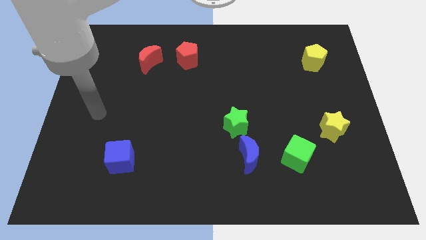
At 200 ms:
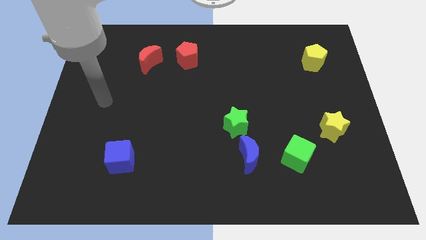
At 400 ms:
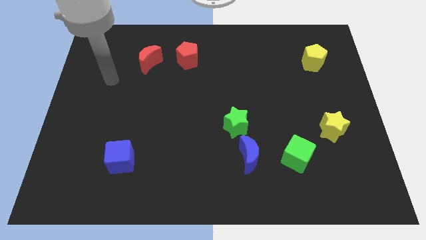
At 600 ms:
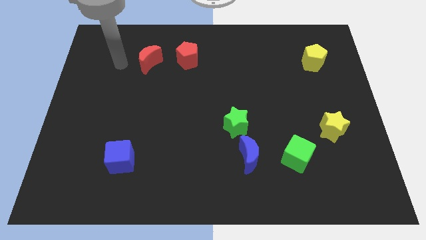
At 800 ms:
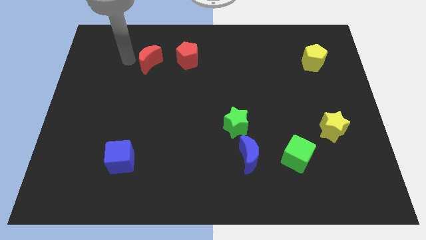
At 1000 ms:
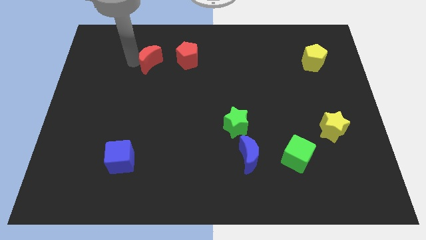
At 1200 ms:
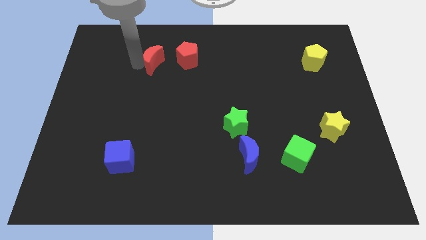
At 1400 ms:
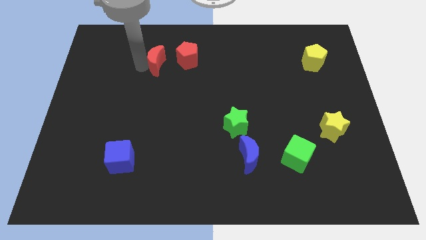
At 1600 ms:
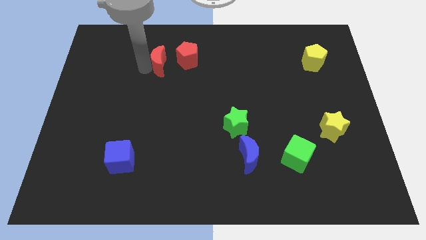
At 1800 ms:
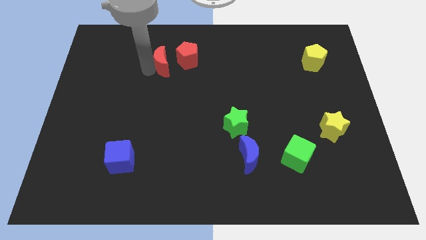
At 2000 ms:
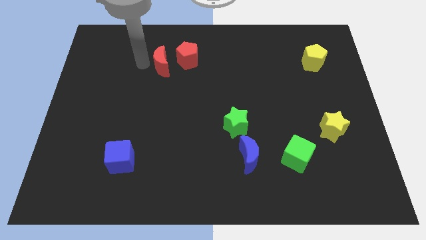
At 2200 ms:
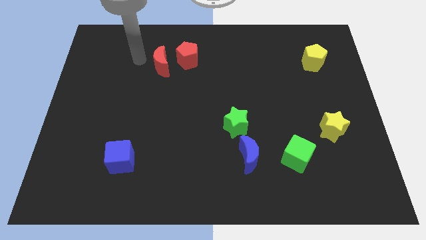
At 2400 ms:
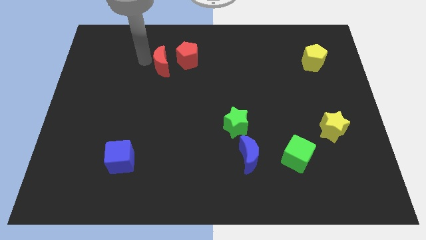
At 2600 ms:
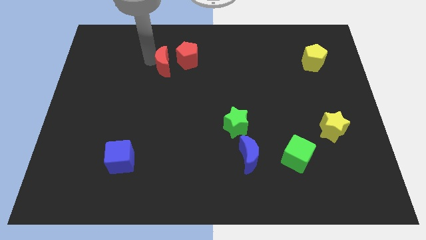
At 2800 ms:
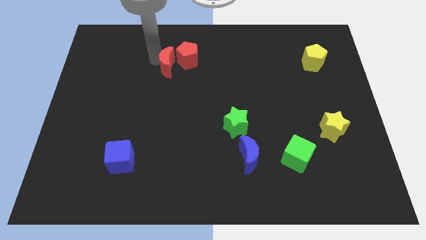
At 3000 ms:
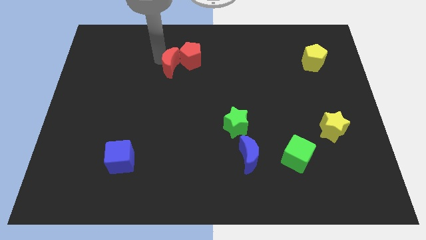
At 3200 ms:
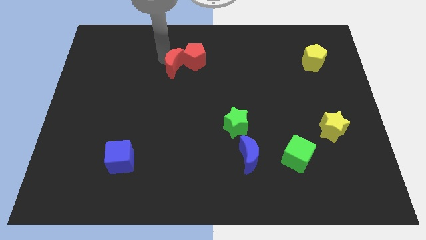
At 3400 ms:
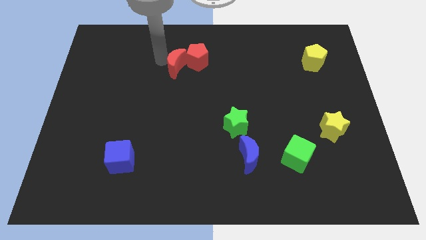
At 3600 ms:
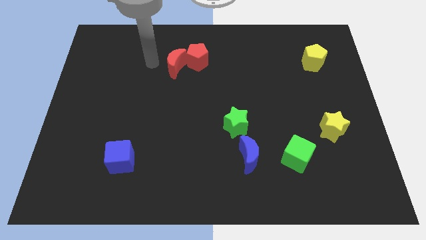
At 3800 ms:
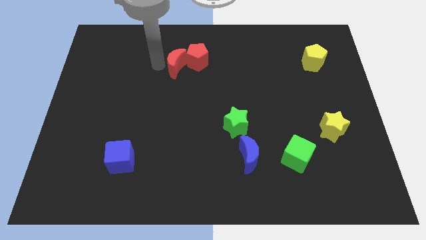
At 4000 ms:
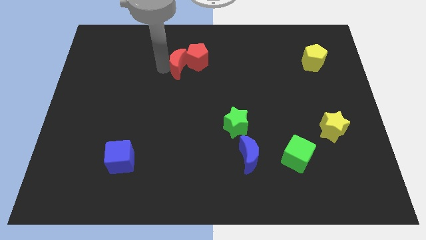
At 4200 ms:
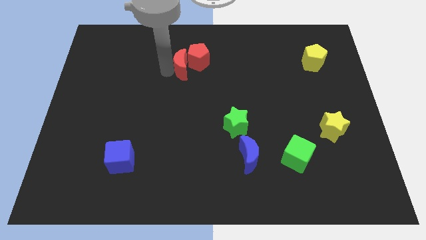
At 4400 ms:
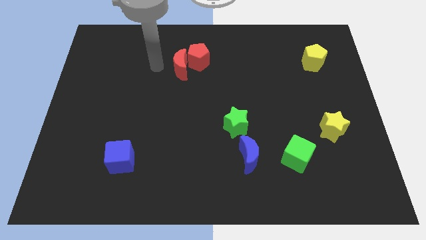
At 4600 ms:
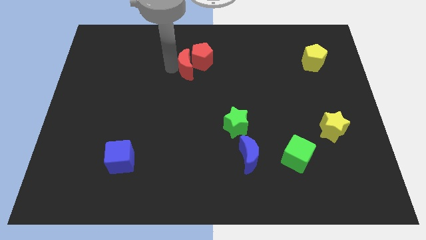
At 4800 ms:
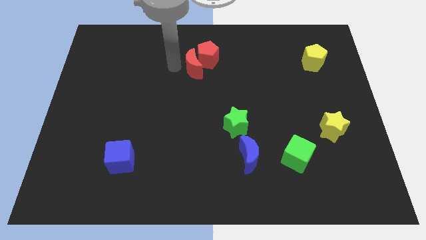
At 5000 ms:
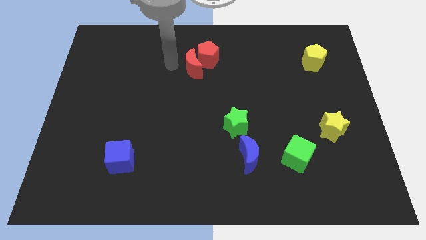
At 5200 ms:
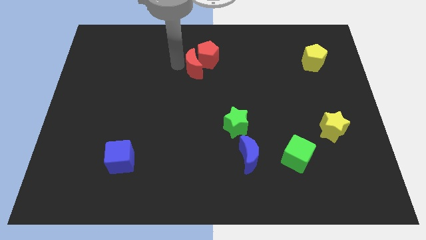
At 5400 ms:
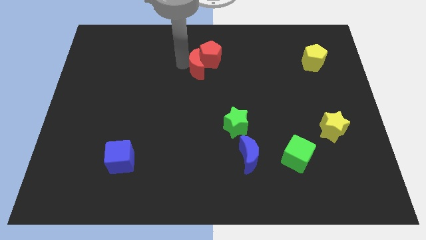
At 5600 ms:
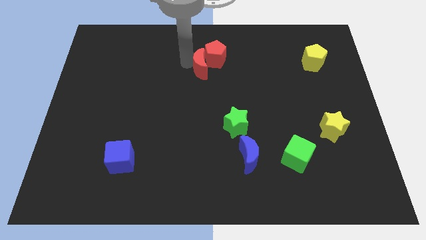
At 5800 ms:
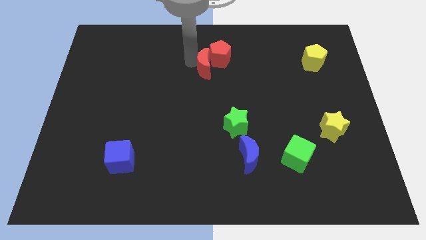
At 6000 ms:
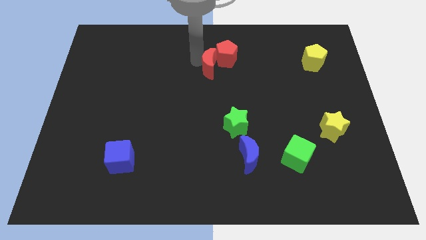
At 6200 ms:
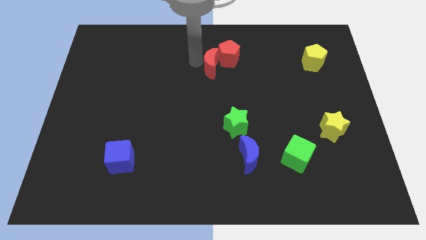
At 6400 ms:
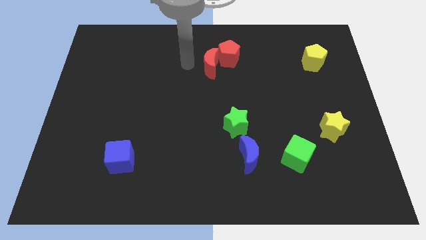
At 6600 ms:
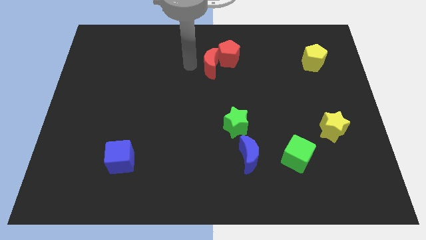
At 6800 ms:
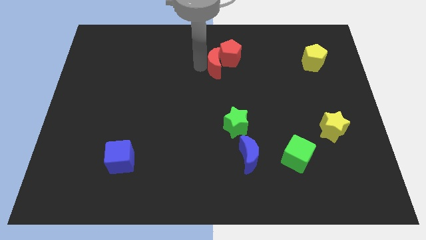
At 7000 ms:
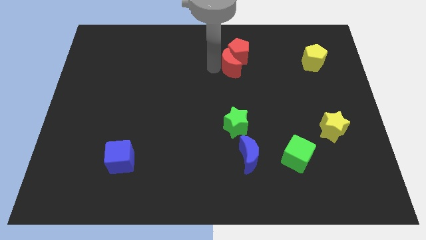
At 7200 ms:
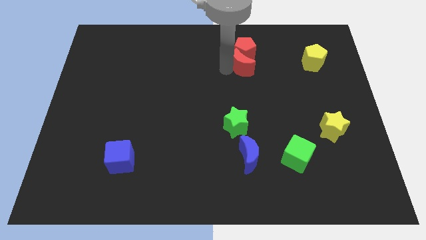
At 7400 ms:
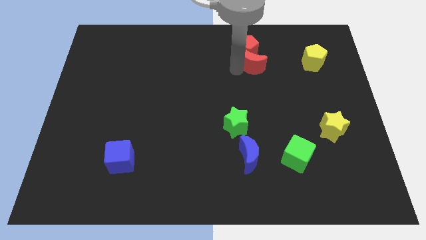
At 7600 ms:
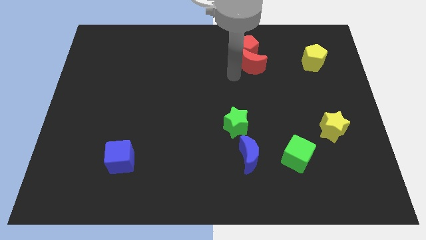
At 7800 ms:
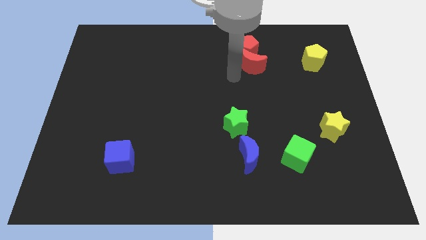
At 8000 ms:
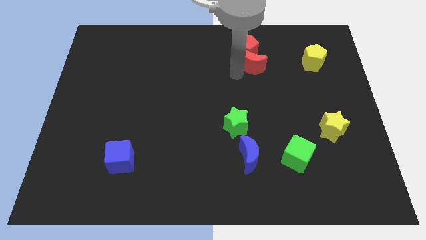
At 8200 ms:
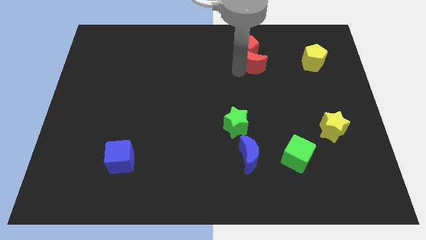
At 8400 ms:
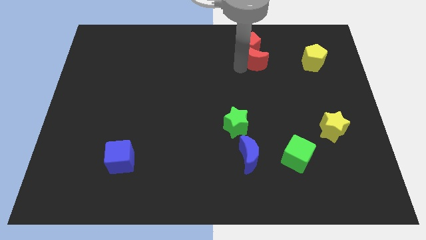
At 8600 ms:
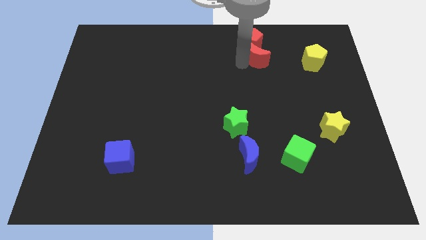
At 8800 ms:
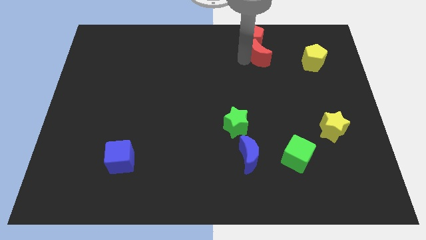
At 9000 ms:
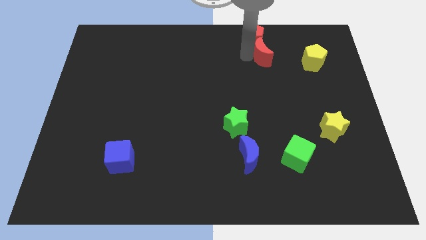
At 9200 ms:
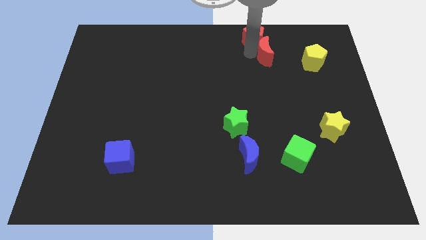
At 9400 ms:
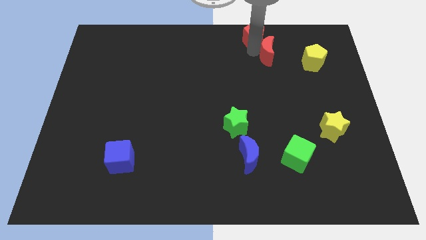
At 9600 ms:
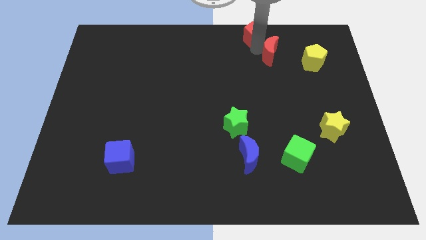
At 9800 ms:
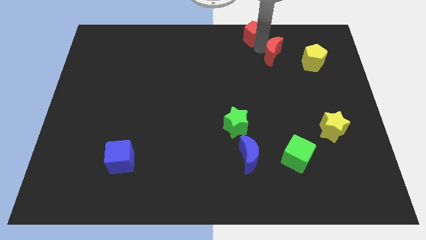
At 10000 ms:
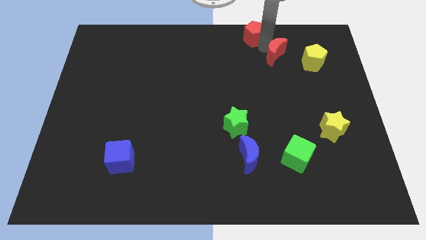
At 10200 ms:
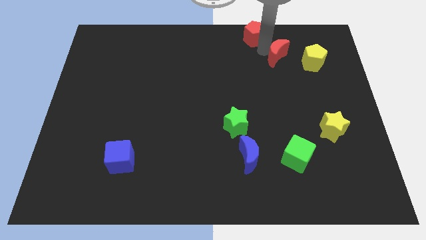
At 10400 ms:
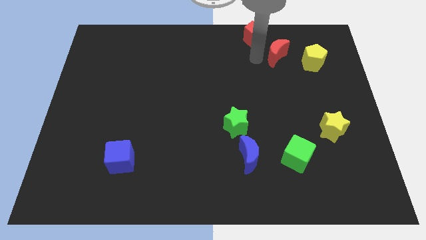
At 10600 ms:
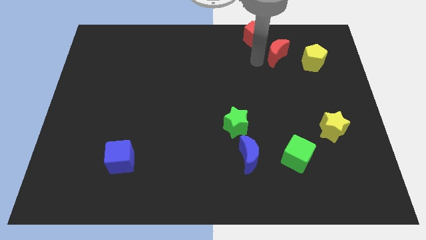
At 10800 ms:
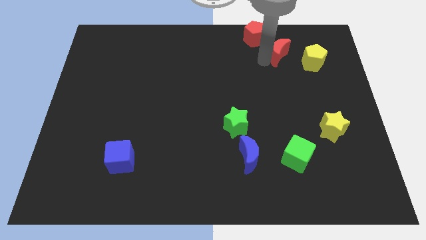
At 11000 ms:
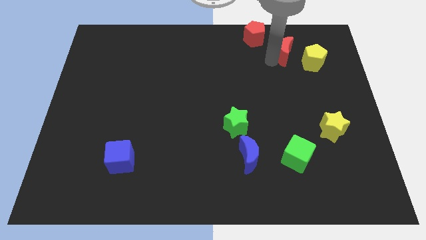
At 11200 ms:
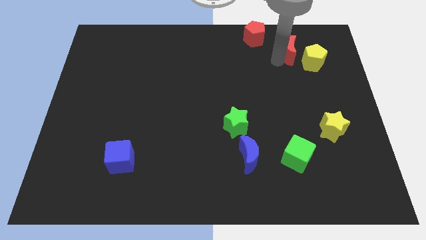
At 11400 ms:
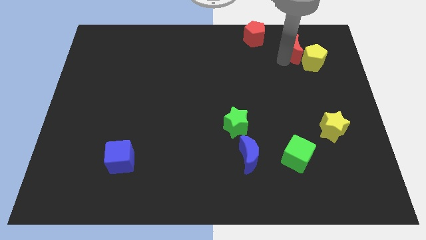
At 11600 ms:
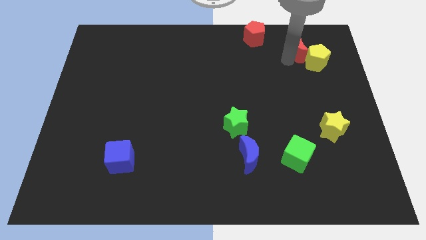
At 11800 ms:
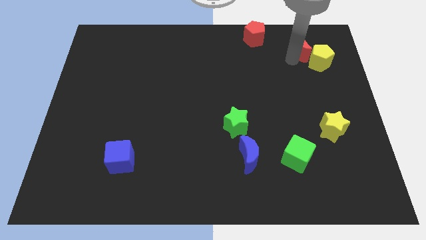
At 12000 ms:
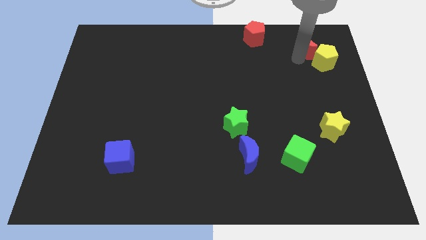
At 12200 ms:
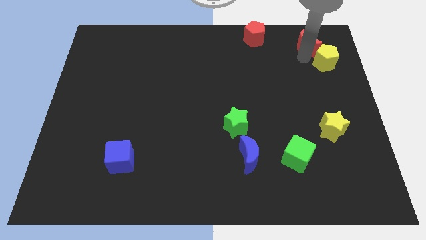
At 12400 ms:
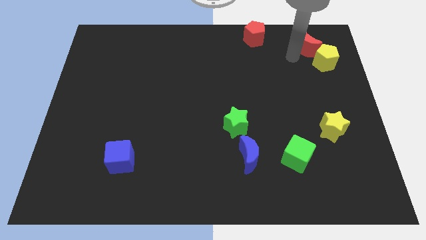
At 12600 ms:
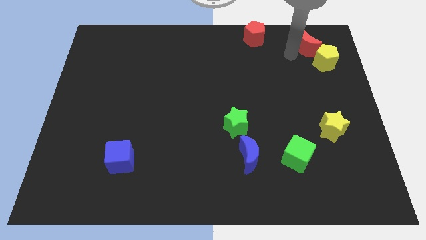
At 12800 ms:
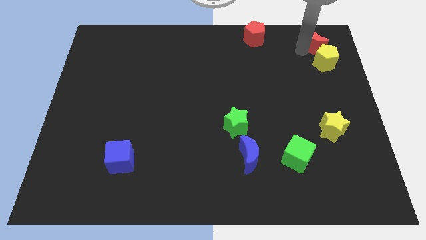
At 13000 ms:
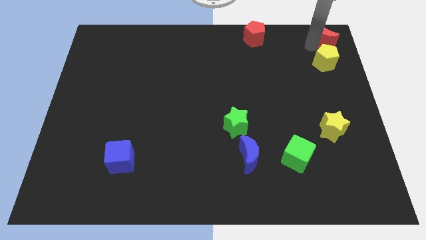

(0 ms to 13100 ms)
push the red moon to the top right

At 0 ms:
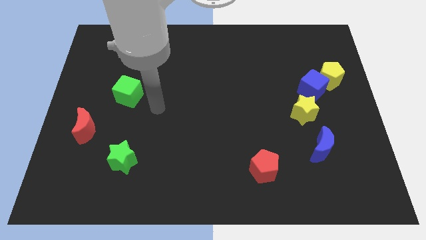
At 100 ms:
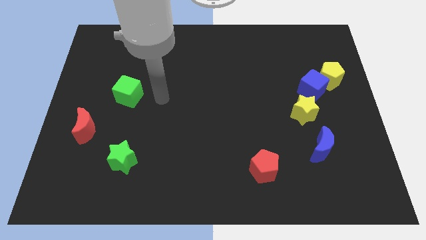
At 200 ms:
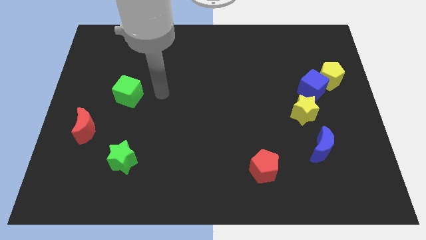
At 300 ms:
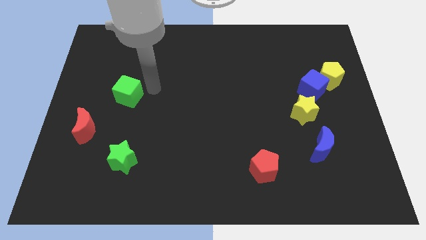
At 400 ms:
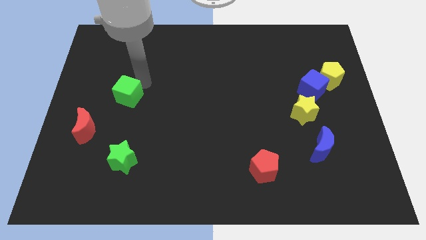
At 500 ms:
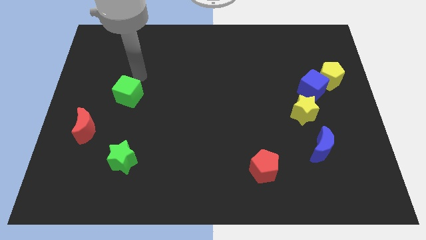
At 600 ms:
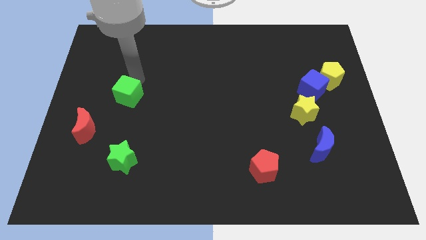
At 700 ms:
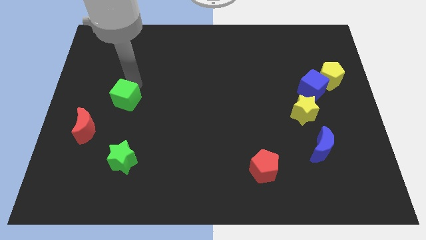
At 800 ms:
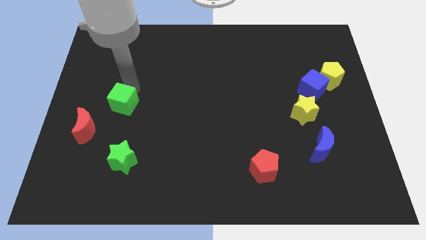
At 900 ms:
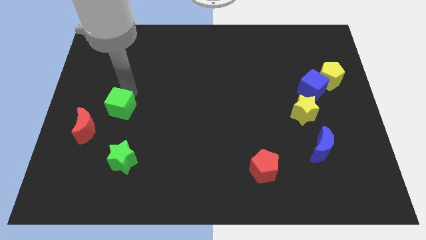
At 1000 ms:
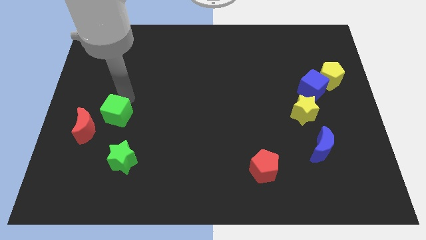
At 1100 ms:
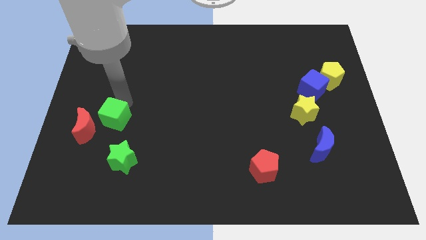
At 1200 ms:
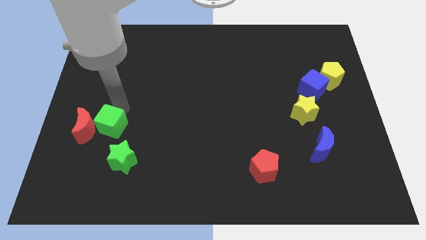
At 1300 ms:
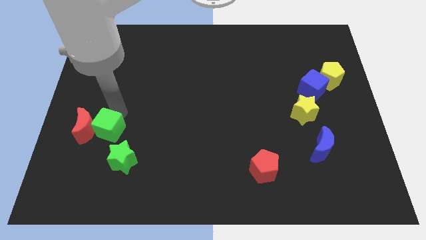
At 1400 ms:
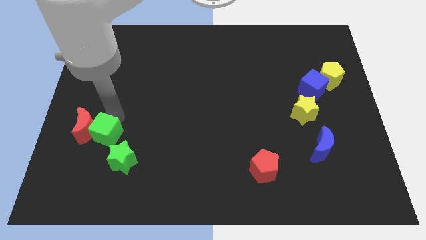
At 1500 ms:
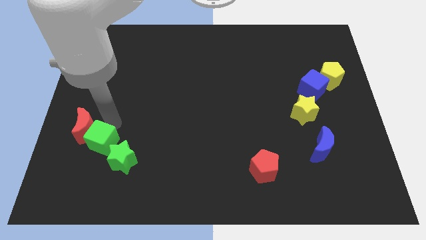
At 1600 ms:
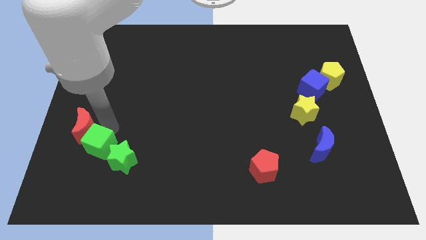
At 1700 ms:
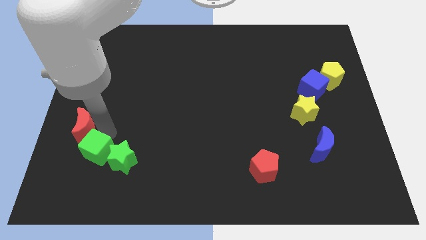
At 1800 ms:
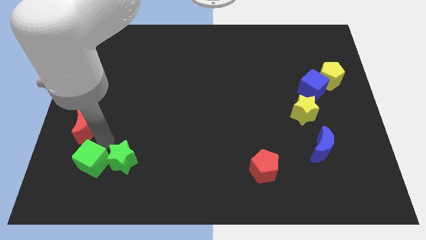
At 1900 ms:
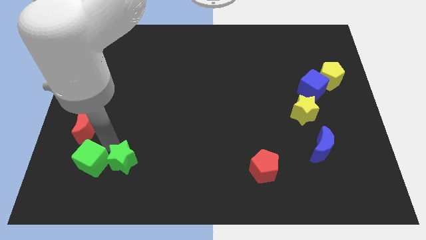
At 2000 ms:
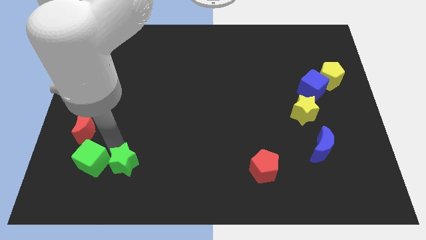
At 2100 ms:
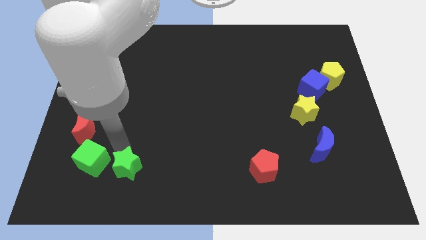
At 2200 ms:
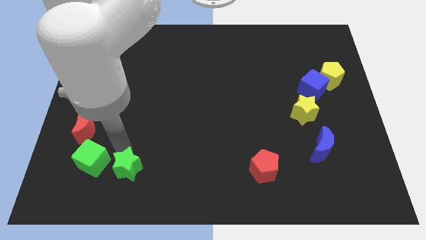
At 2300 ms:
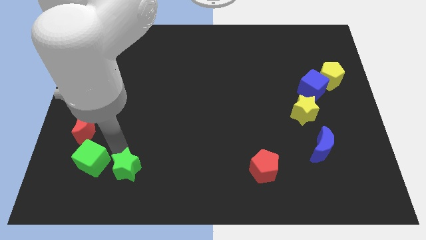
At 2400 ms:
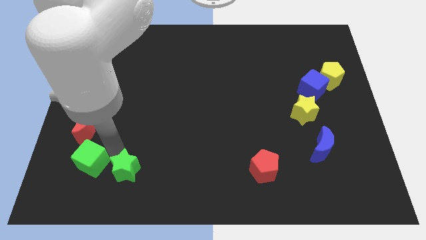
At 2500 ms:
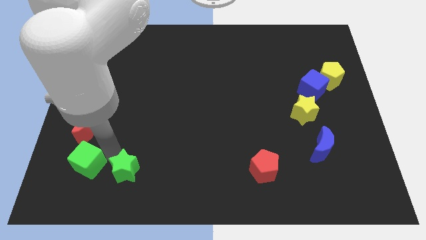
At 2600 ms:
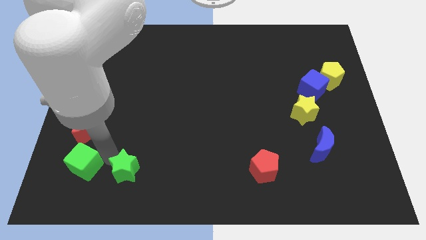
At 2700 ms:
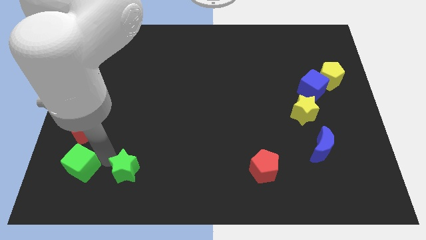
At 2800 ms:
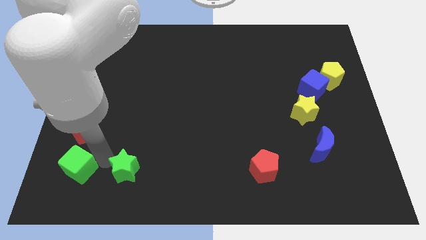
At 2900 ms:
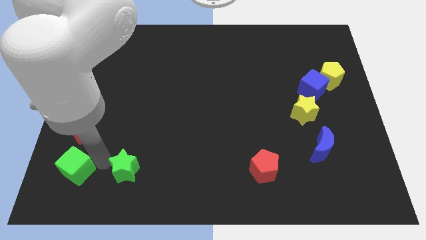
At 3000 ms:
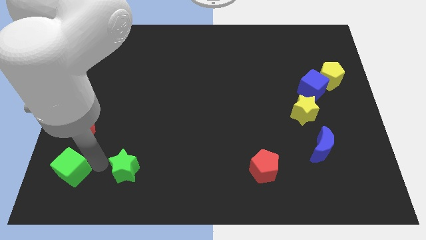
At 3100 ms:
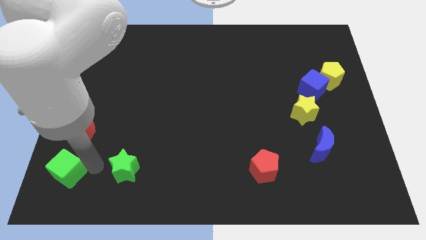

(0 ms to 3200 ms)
push the green cube to the bottom left of the board
